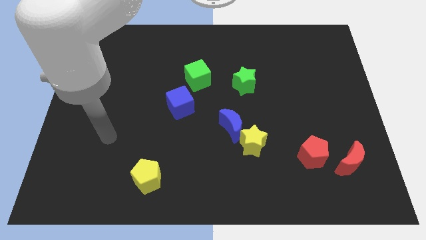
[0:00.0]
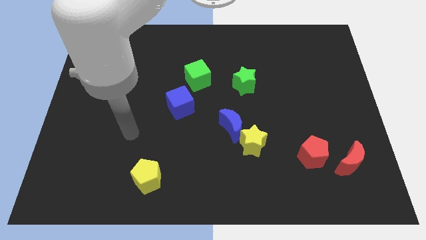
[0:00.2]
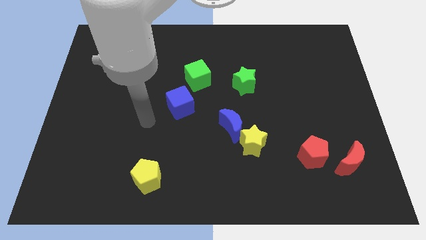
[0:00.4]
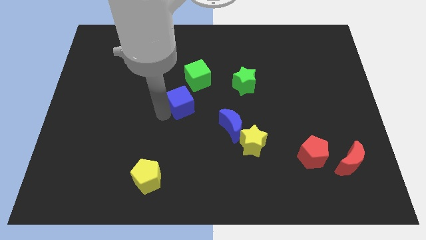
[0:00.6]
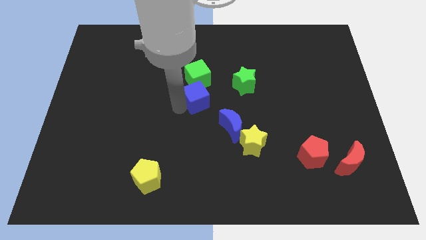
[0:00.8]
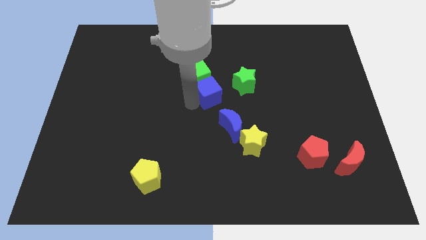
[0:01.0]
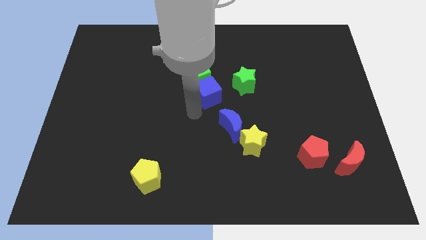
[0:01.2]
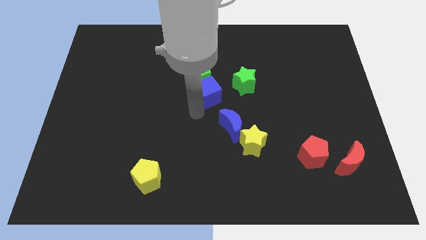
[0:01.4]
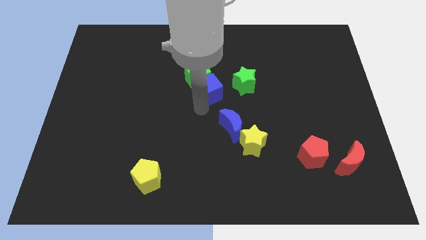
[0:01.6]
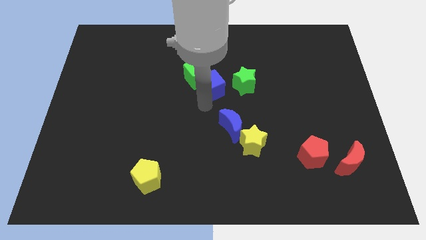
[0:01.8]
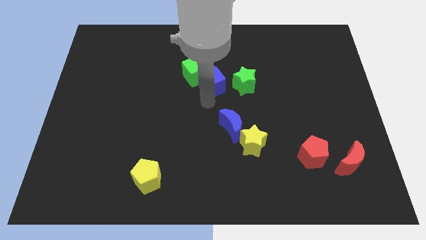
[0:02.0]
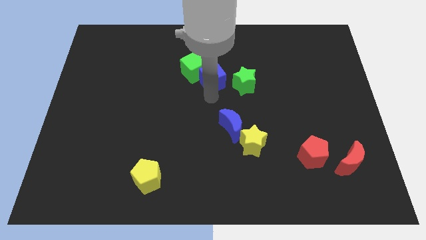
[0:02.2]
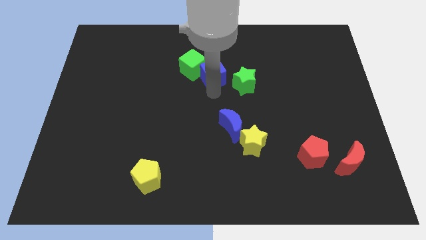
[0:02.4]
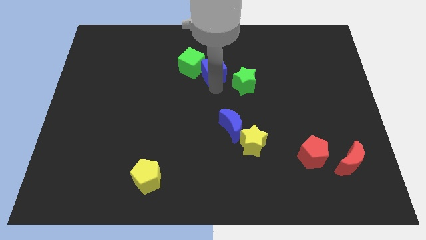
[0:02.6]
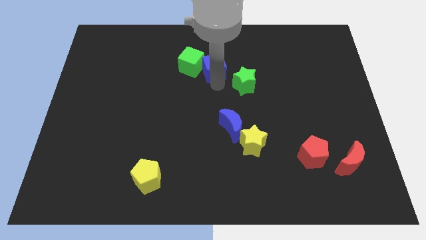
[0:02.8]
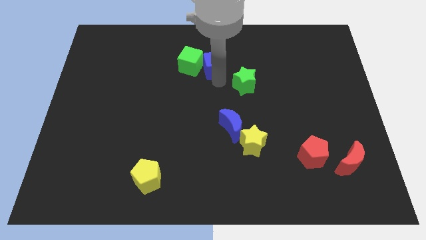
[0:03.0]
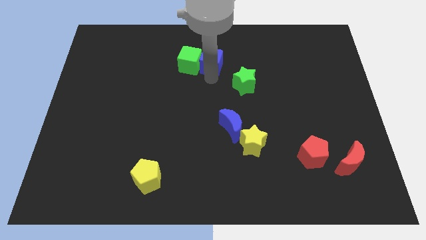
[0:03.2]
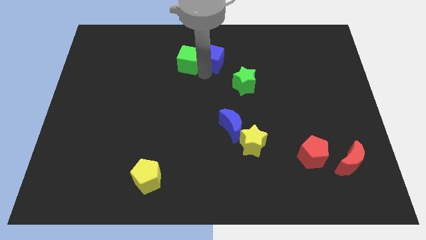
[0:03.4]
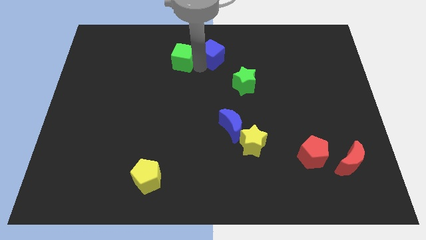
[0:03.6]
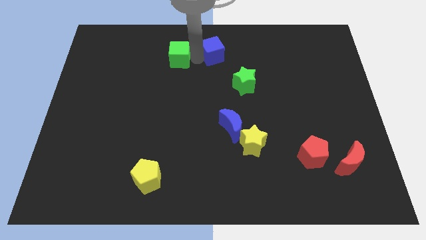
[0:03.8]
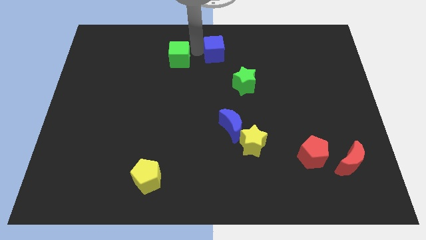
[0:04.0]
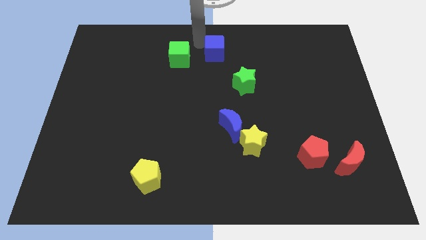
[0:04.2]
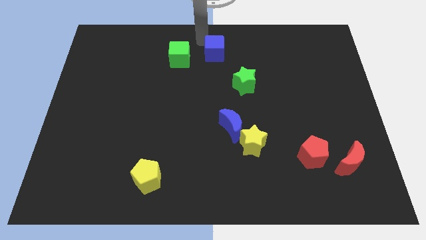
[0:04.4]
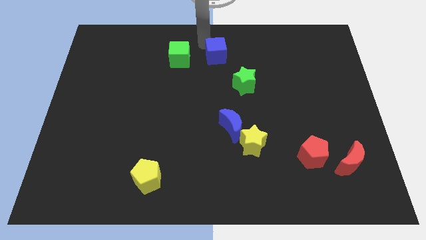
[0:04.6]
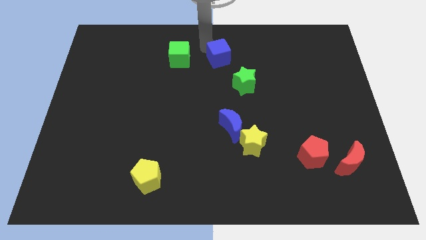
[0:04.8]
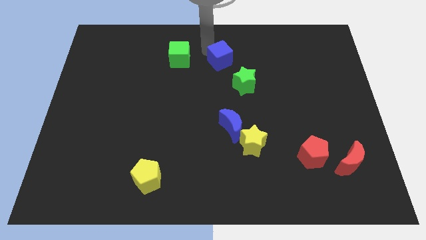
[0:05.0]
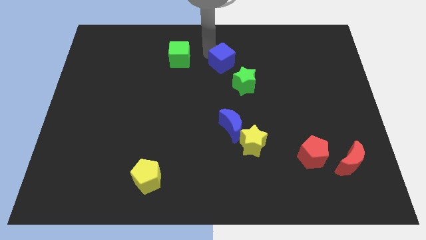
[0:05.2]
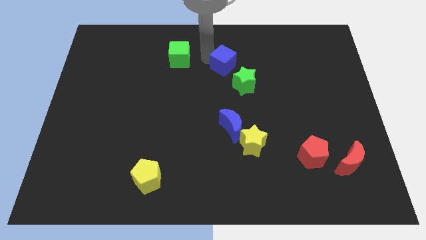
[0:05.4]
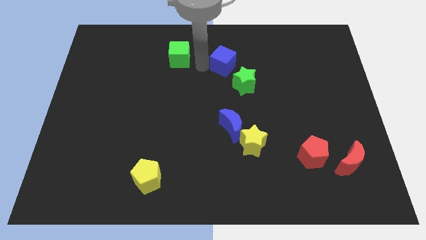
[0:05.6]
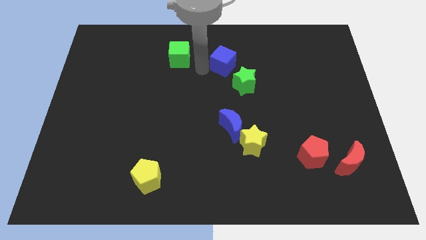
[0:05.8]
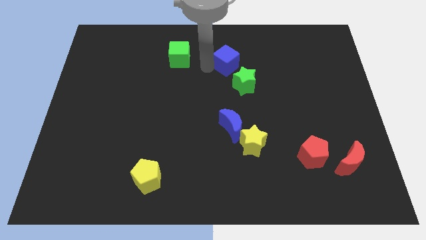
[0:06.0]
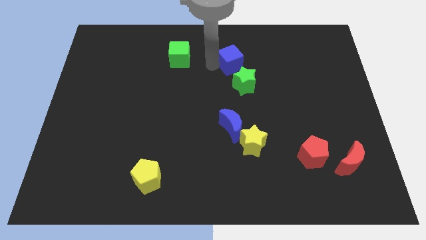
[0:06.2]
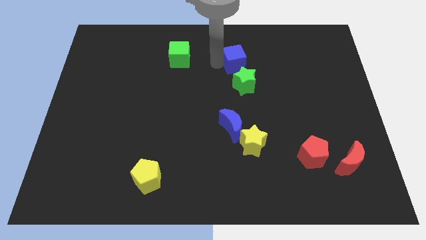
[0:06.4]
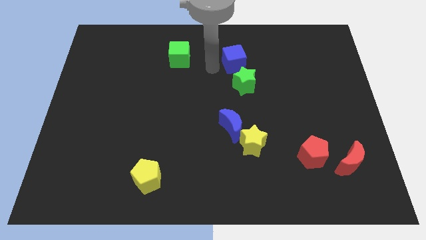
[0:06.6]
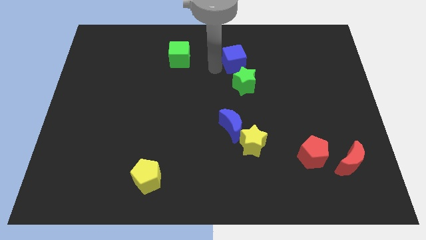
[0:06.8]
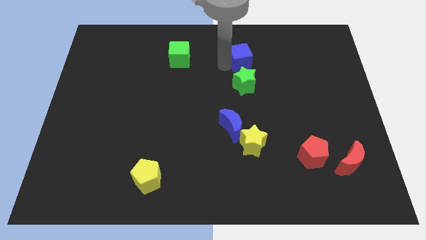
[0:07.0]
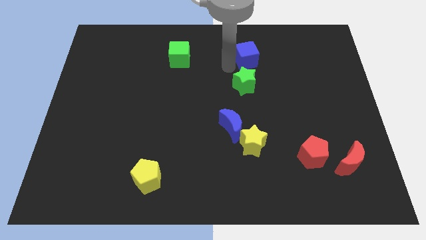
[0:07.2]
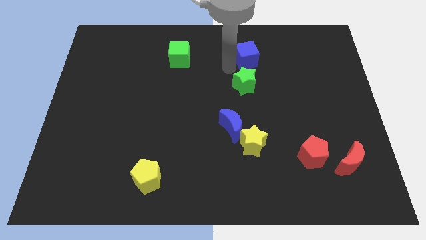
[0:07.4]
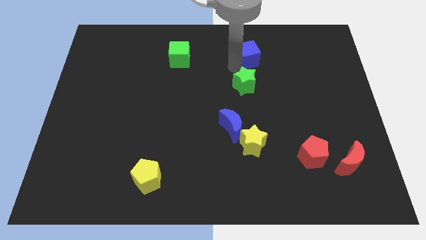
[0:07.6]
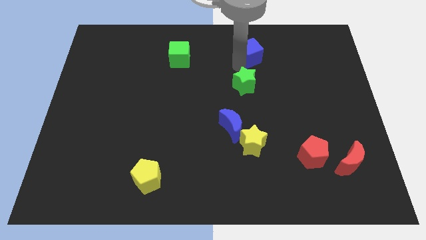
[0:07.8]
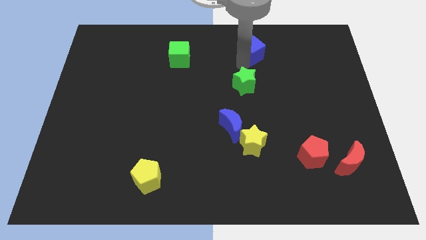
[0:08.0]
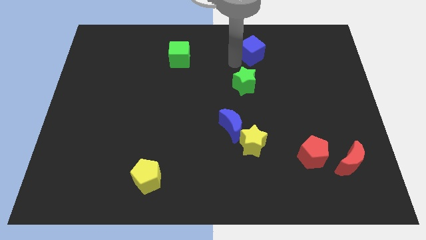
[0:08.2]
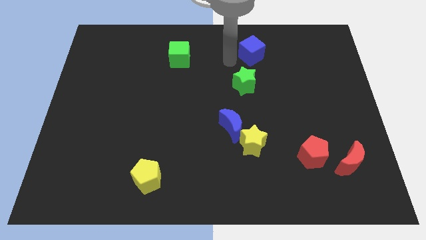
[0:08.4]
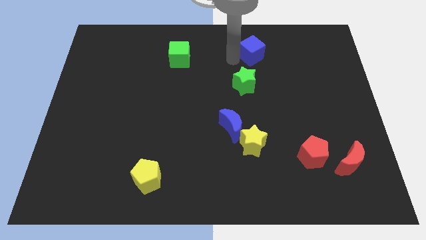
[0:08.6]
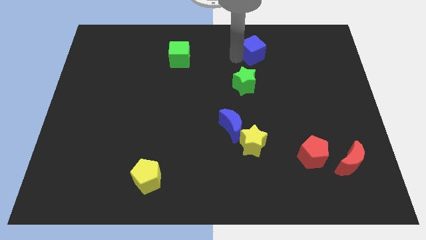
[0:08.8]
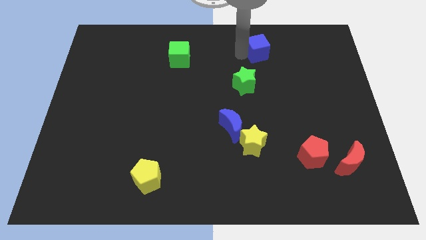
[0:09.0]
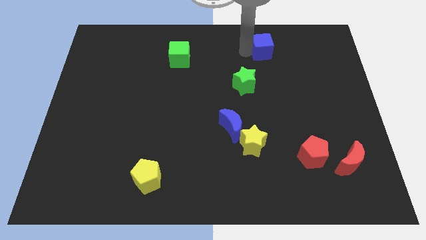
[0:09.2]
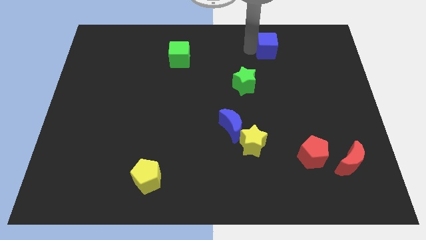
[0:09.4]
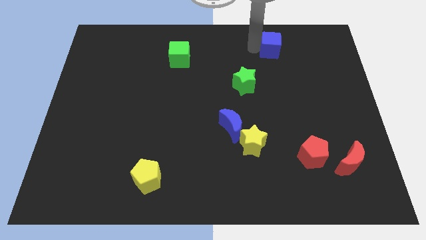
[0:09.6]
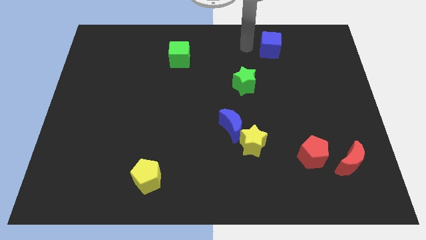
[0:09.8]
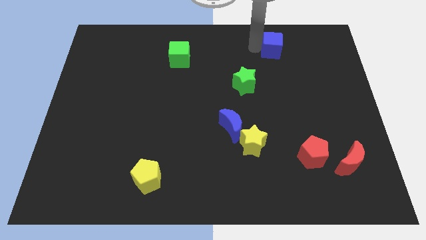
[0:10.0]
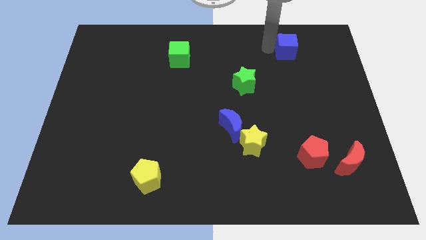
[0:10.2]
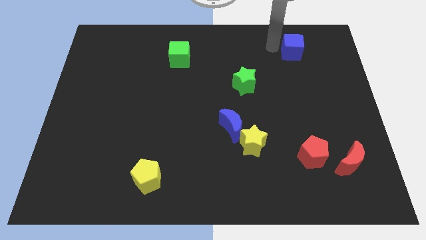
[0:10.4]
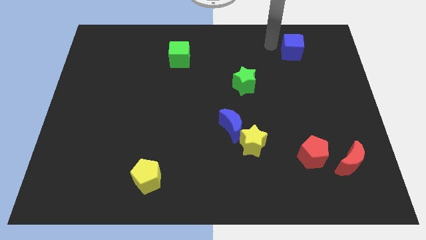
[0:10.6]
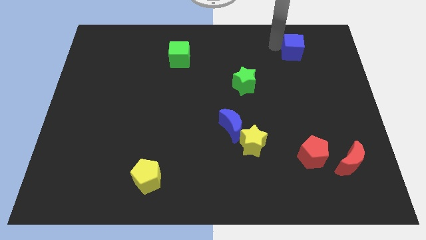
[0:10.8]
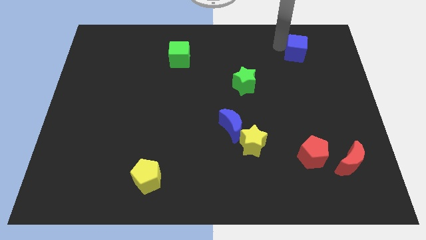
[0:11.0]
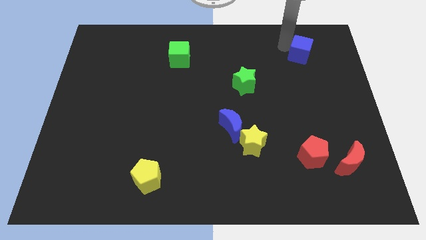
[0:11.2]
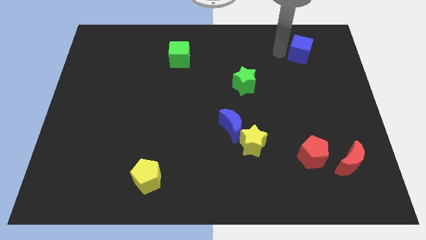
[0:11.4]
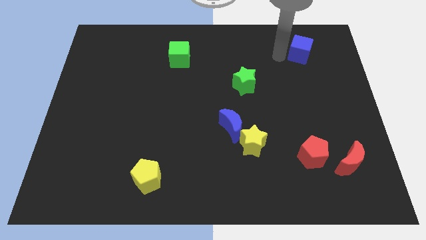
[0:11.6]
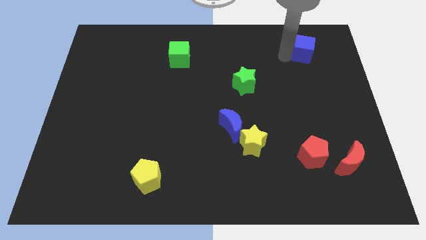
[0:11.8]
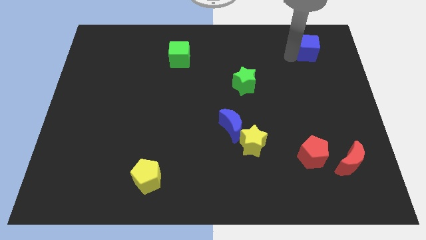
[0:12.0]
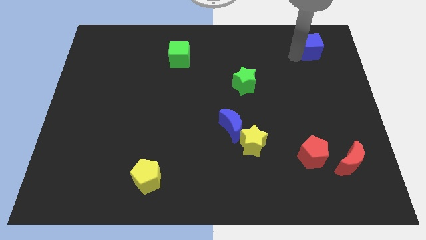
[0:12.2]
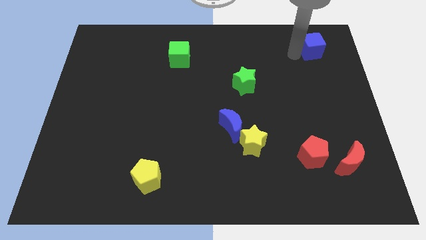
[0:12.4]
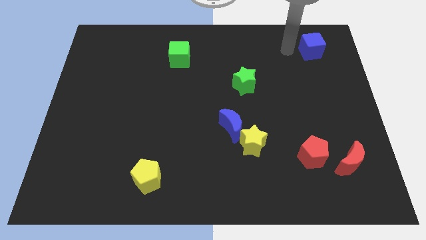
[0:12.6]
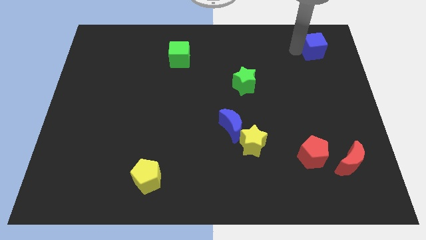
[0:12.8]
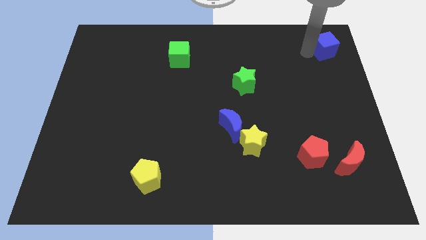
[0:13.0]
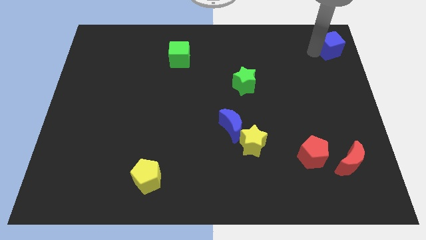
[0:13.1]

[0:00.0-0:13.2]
slide the blue cube to the top right corner

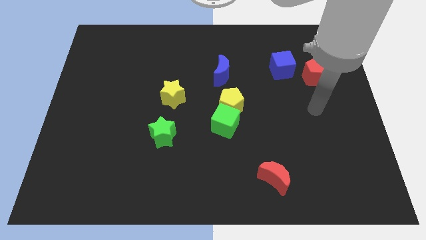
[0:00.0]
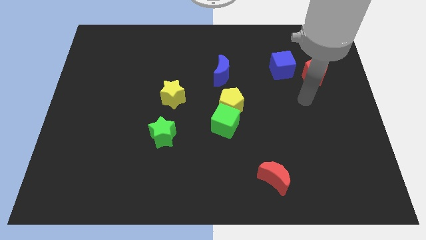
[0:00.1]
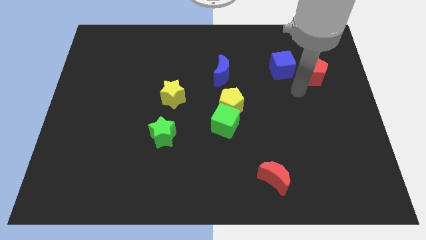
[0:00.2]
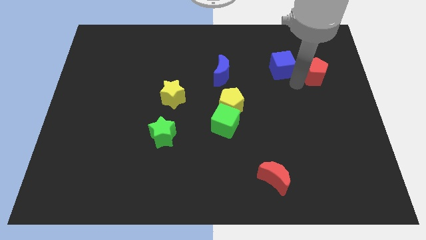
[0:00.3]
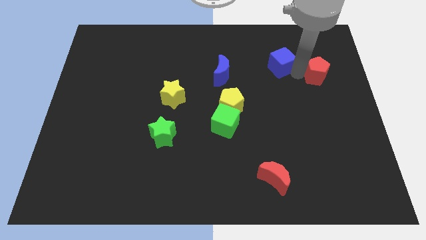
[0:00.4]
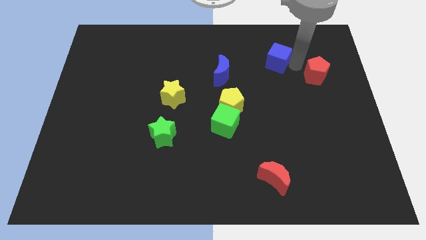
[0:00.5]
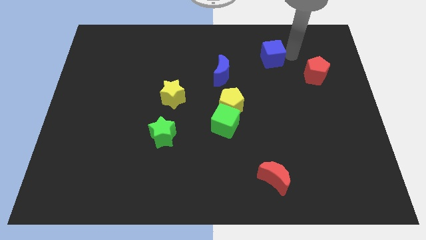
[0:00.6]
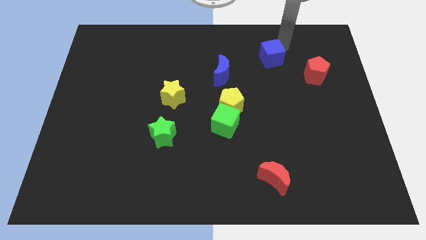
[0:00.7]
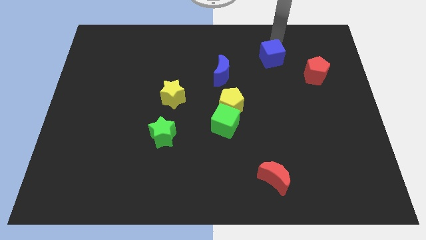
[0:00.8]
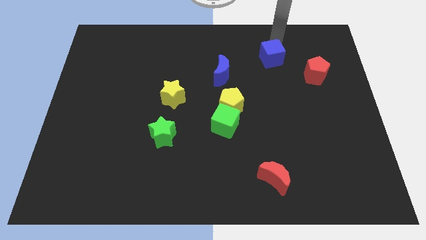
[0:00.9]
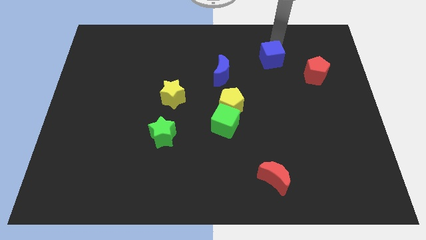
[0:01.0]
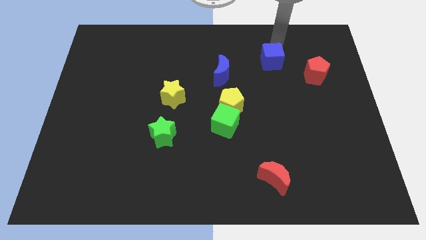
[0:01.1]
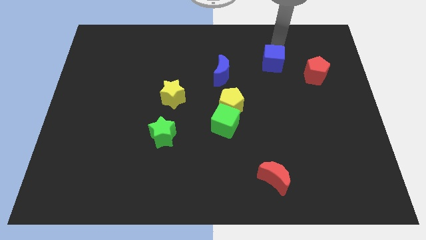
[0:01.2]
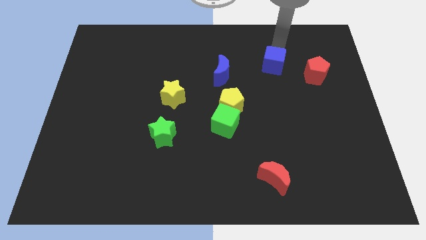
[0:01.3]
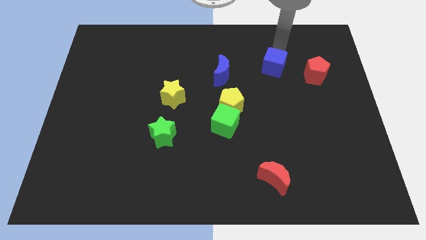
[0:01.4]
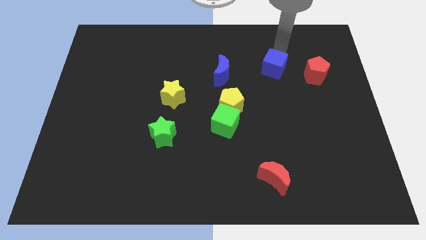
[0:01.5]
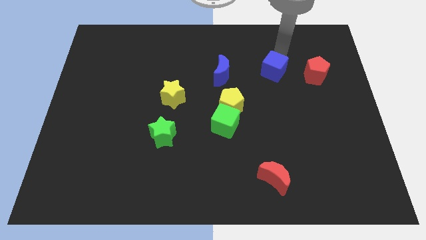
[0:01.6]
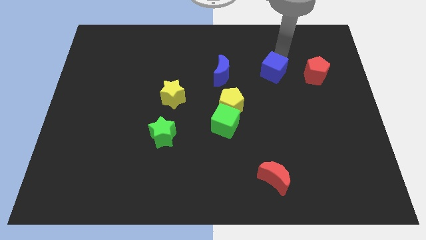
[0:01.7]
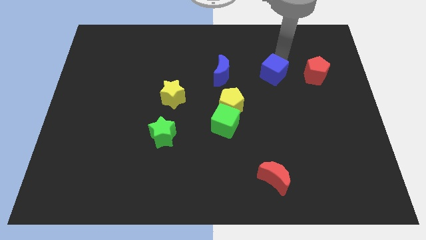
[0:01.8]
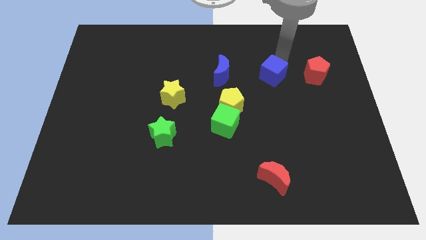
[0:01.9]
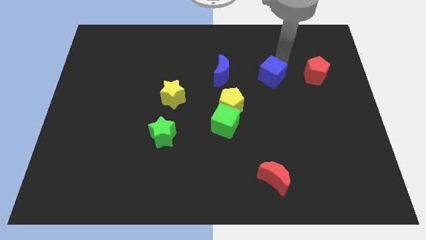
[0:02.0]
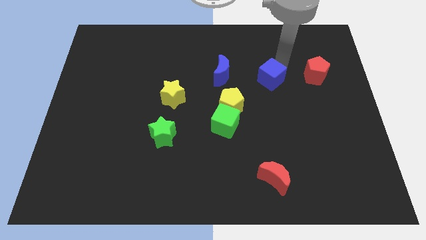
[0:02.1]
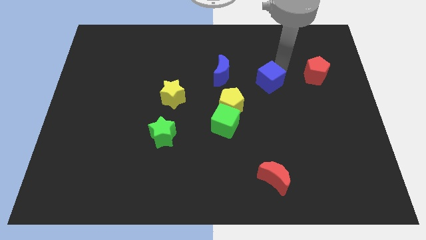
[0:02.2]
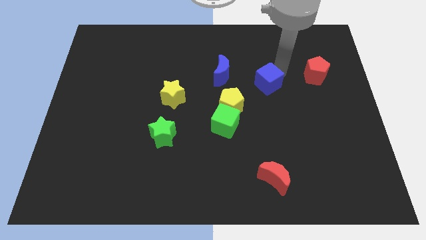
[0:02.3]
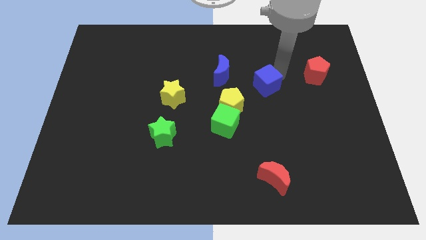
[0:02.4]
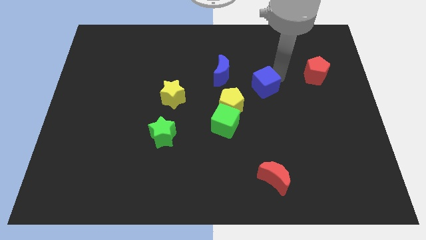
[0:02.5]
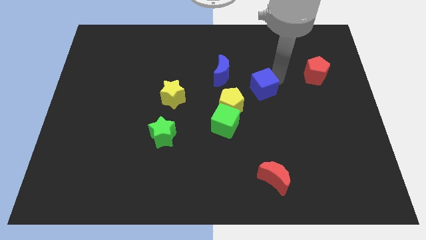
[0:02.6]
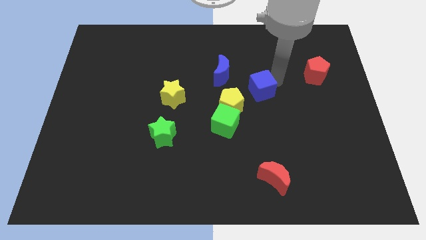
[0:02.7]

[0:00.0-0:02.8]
push the blue cube to the middle of the board
